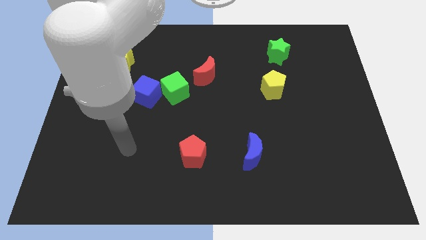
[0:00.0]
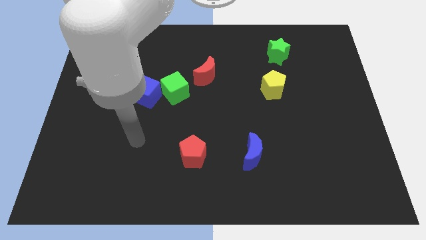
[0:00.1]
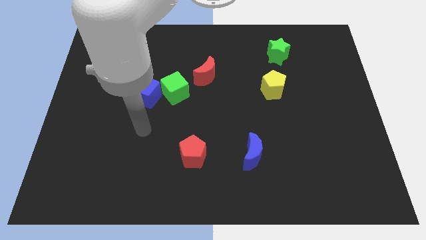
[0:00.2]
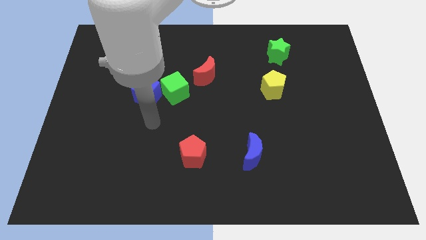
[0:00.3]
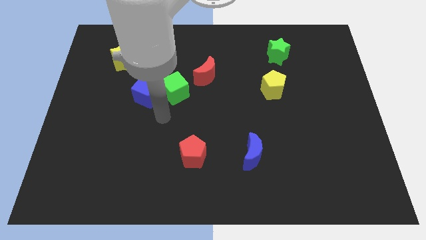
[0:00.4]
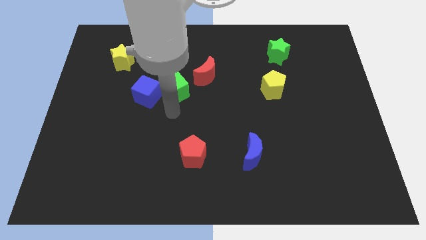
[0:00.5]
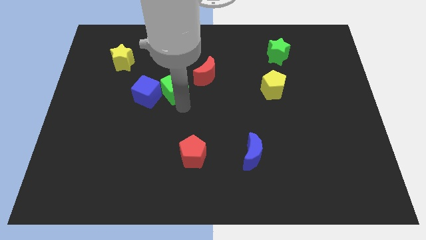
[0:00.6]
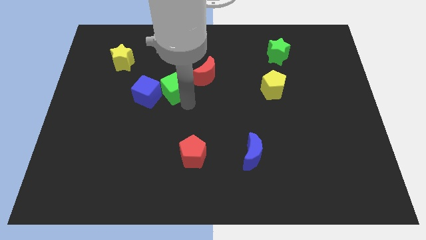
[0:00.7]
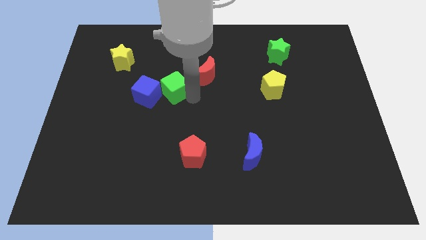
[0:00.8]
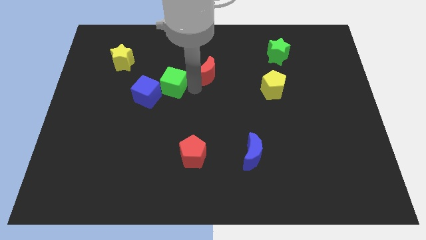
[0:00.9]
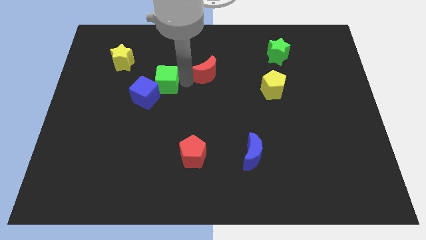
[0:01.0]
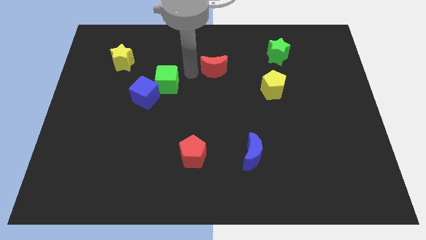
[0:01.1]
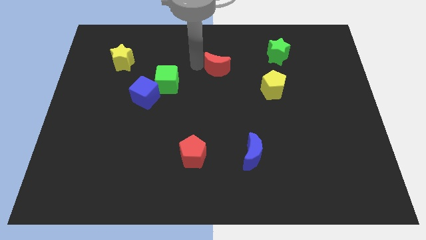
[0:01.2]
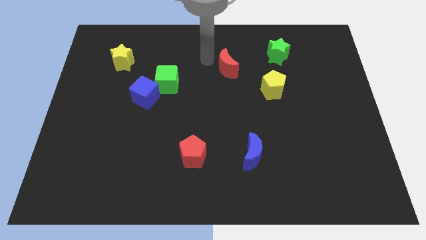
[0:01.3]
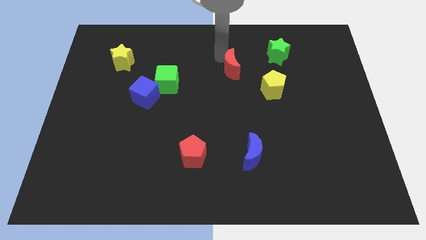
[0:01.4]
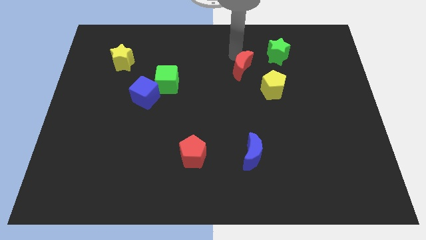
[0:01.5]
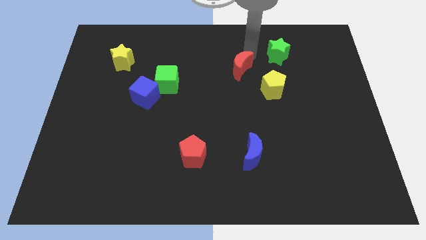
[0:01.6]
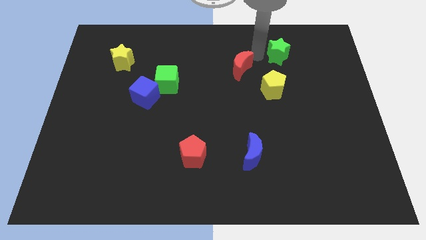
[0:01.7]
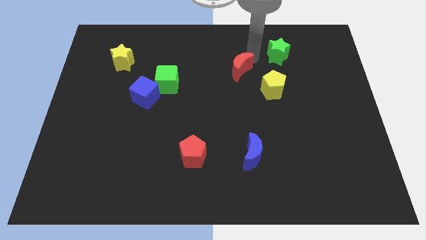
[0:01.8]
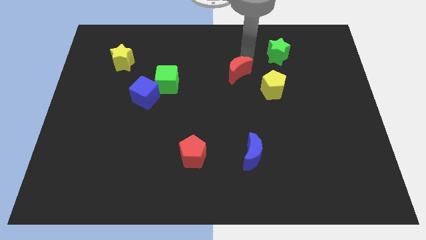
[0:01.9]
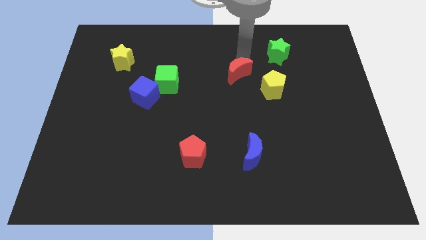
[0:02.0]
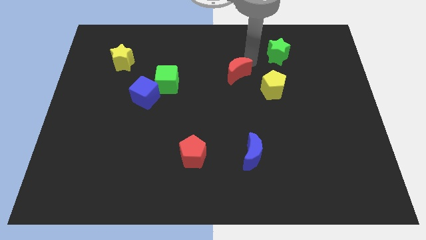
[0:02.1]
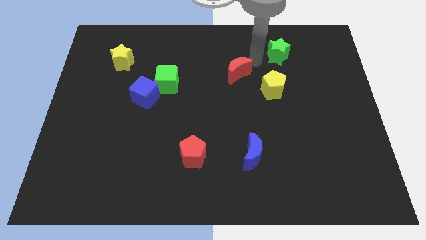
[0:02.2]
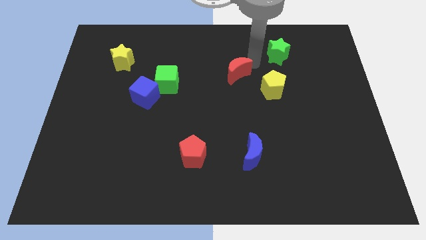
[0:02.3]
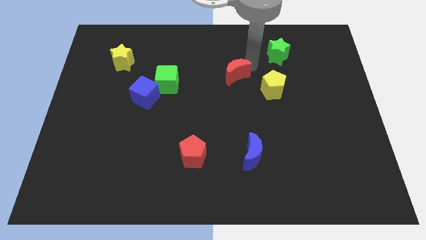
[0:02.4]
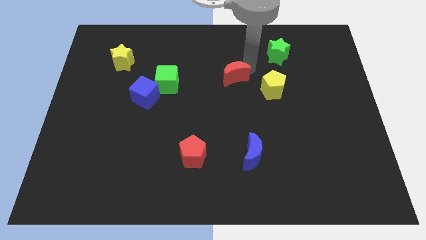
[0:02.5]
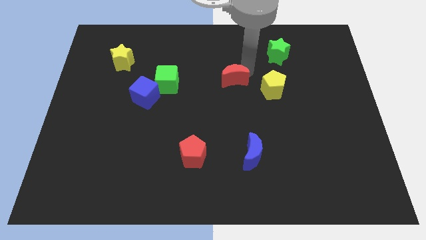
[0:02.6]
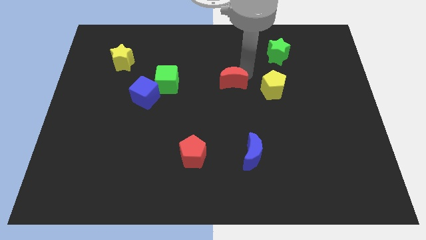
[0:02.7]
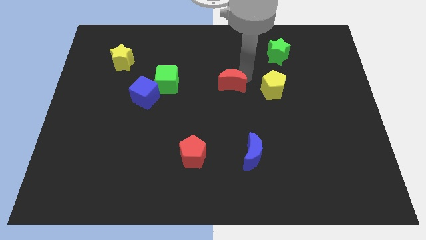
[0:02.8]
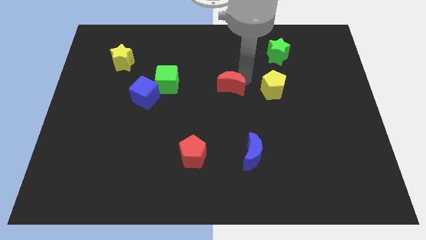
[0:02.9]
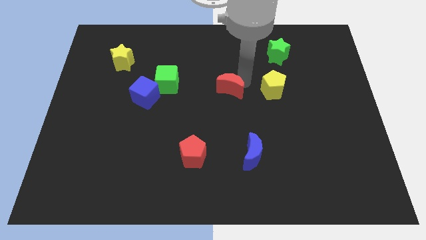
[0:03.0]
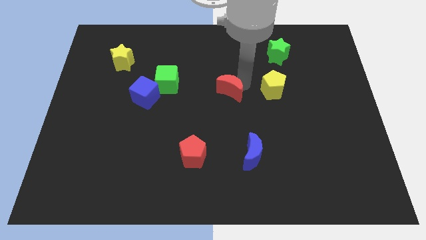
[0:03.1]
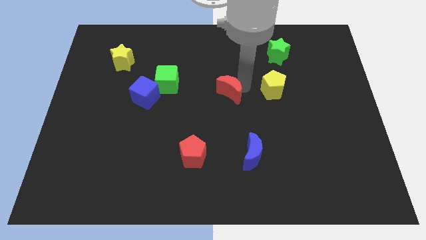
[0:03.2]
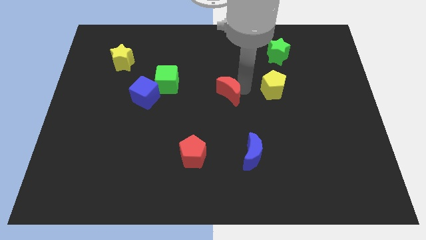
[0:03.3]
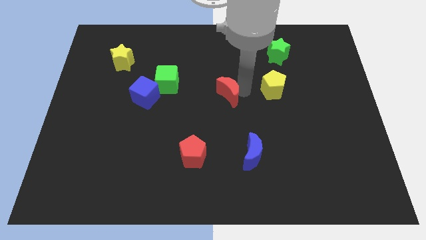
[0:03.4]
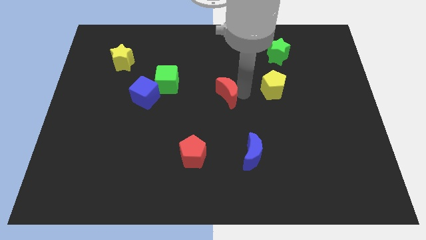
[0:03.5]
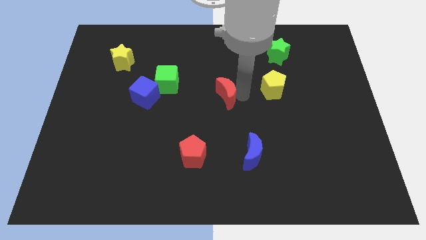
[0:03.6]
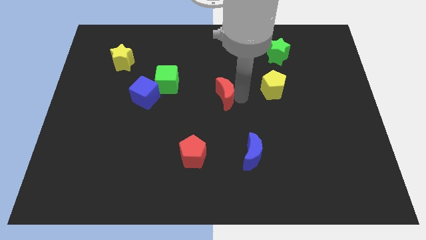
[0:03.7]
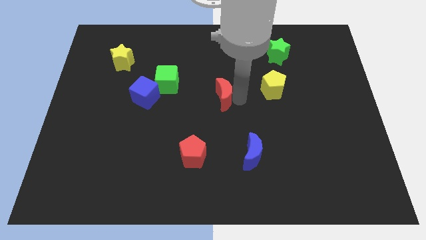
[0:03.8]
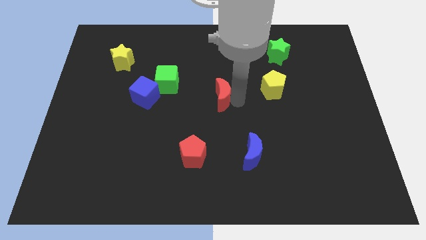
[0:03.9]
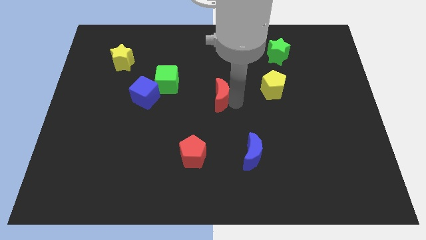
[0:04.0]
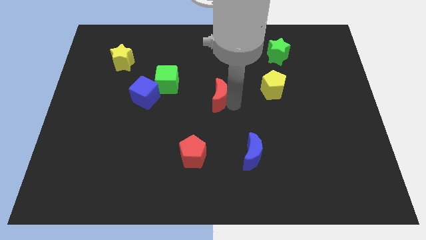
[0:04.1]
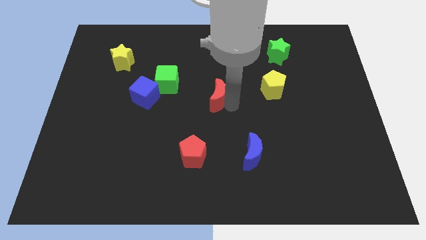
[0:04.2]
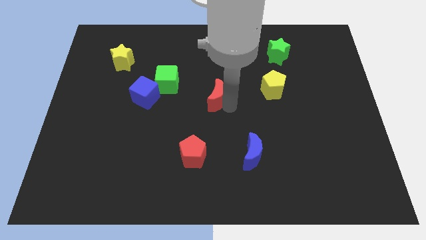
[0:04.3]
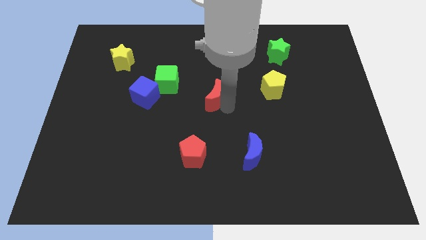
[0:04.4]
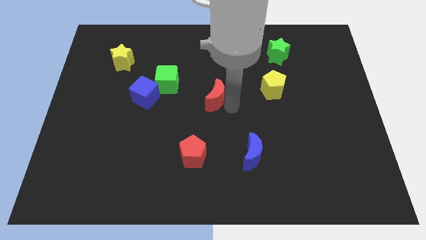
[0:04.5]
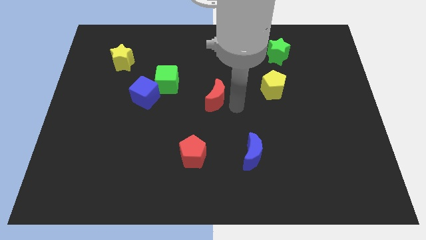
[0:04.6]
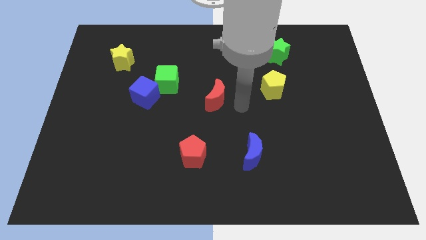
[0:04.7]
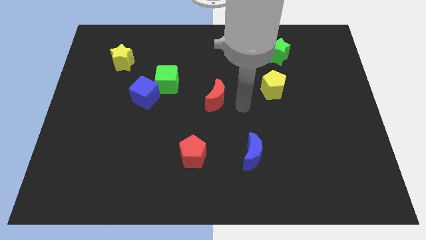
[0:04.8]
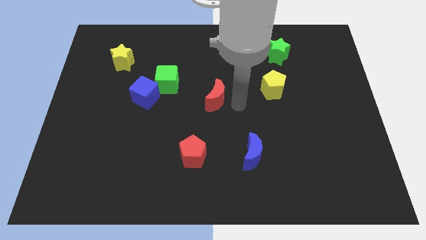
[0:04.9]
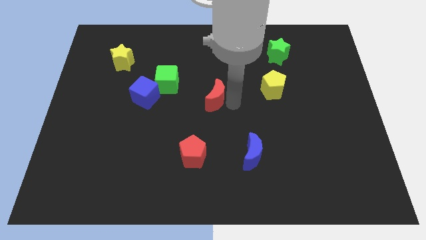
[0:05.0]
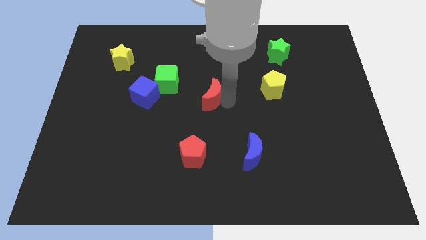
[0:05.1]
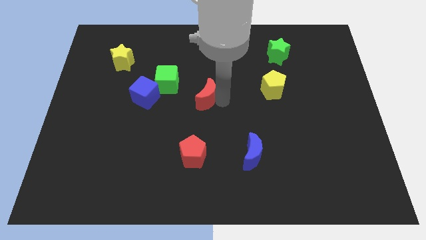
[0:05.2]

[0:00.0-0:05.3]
push the red moon to the bottom right side of the green cube

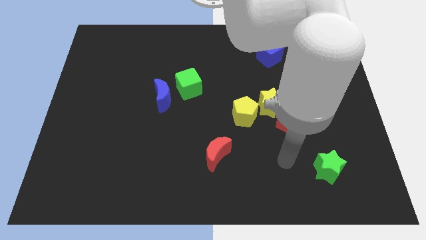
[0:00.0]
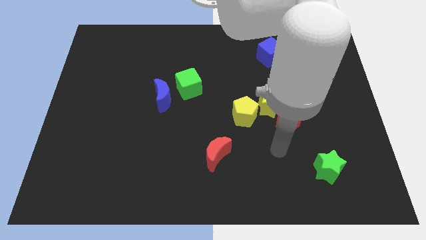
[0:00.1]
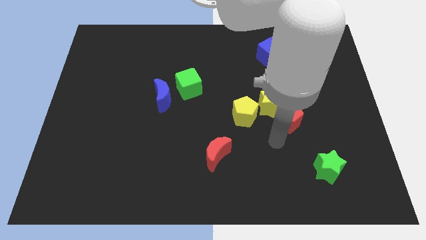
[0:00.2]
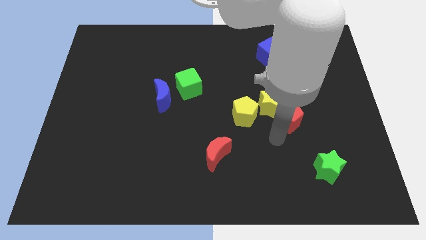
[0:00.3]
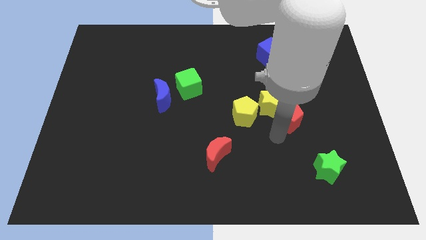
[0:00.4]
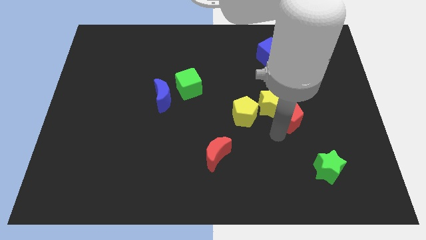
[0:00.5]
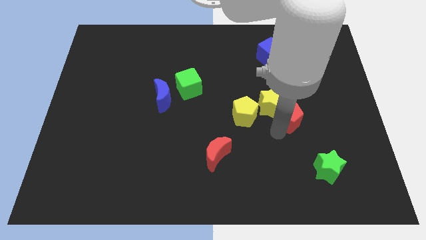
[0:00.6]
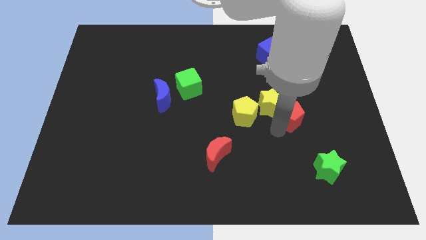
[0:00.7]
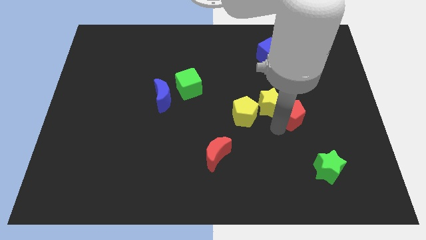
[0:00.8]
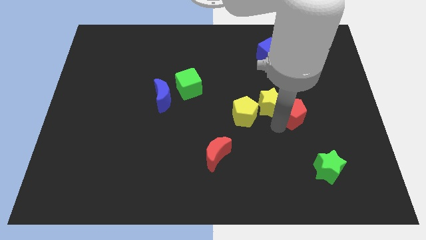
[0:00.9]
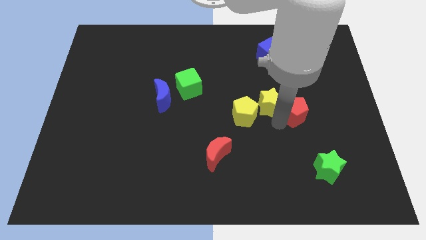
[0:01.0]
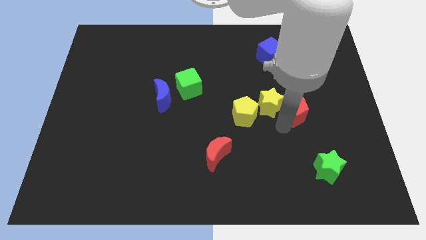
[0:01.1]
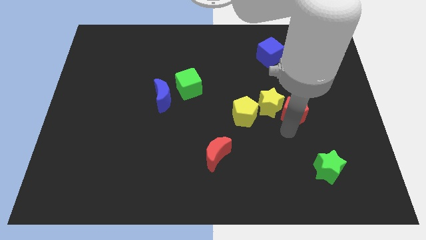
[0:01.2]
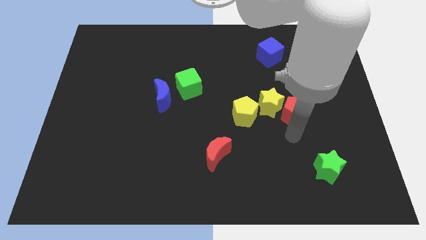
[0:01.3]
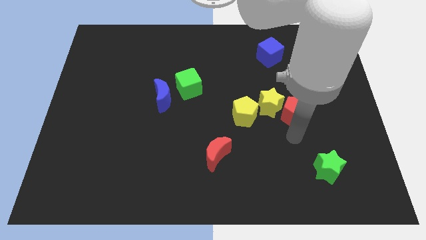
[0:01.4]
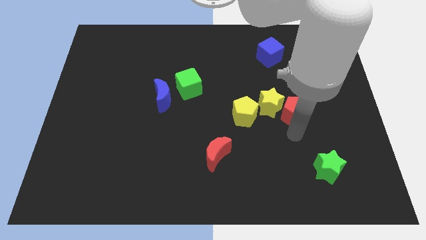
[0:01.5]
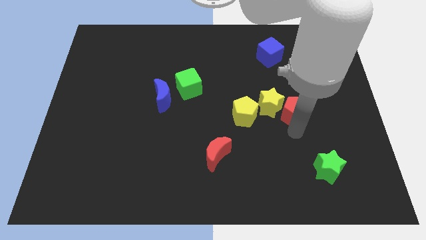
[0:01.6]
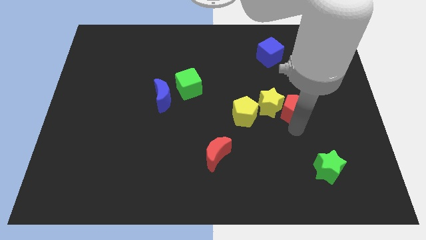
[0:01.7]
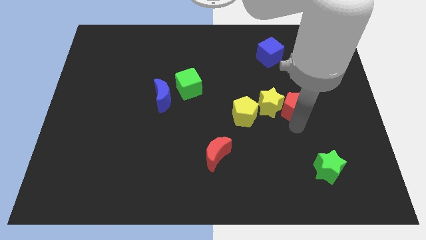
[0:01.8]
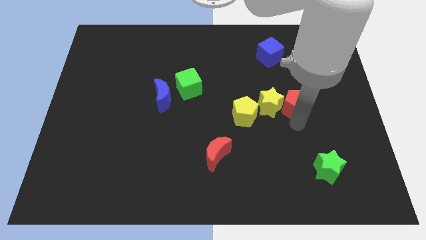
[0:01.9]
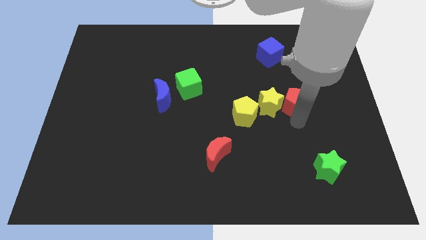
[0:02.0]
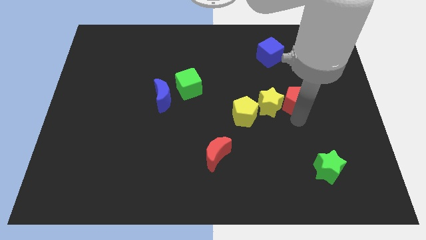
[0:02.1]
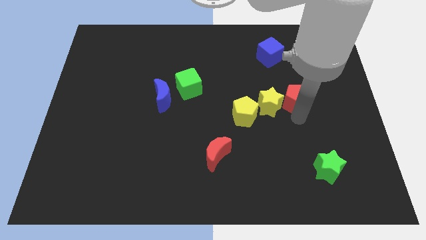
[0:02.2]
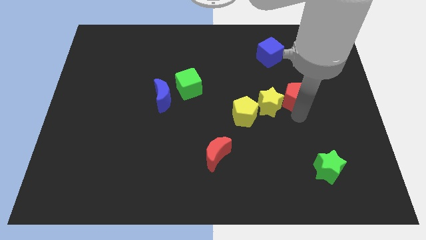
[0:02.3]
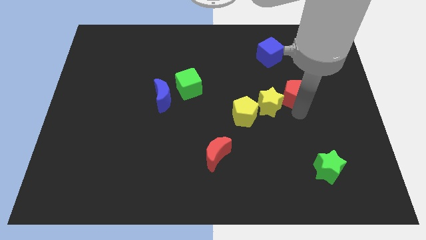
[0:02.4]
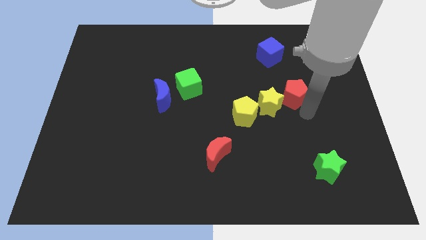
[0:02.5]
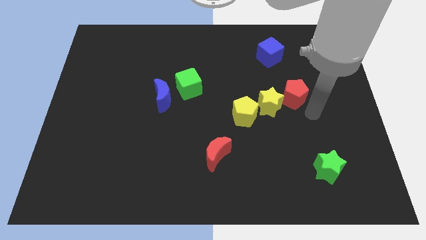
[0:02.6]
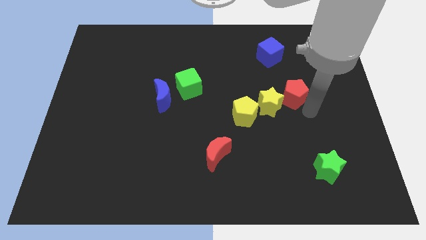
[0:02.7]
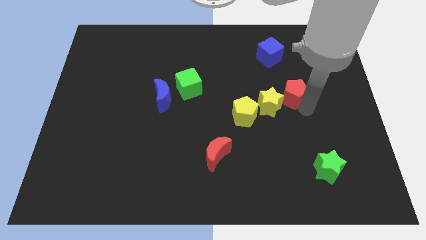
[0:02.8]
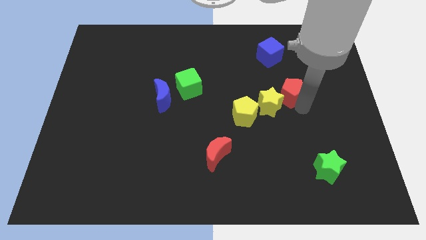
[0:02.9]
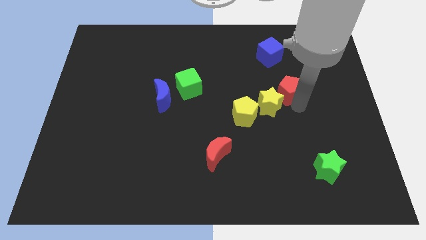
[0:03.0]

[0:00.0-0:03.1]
move the red pentagon above the yellow star
